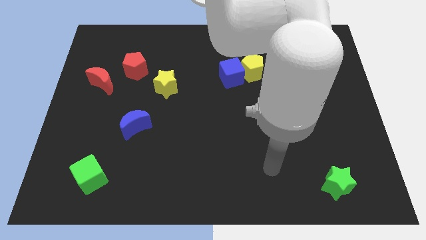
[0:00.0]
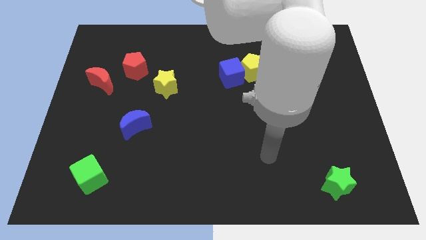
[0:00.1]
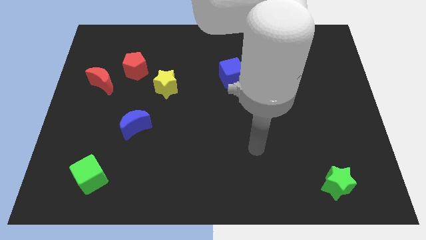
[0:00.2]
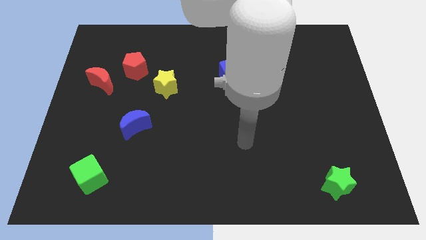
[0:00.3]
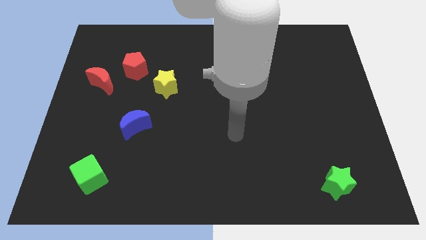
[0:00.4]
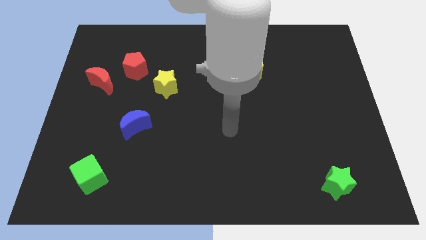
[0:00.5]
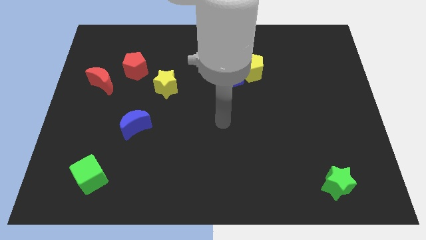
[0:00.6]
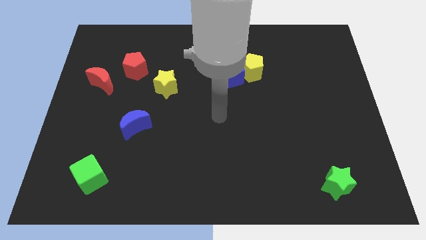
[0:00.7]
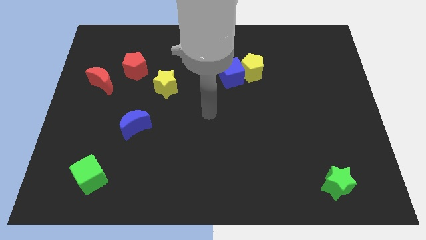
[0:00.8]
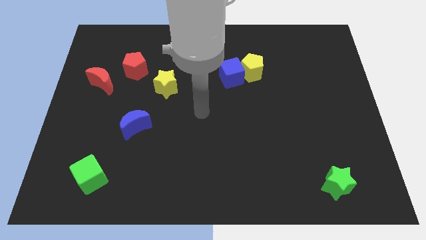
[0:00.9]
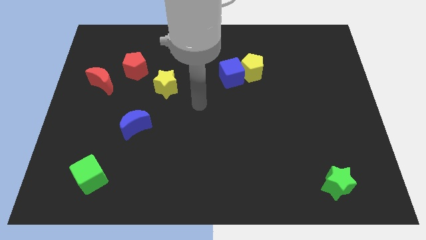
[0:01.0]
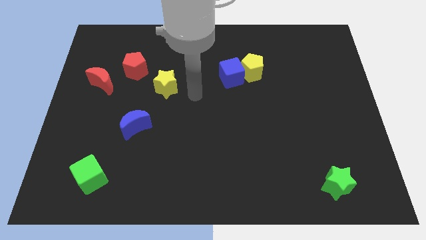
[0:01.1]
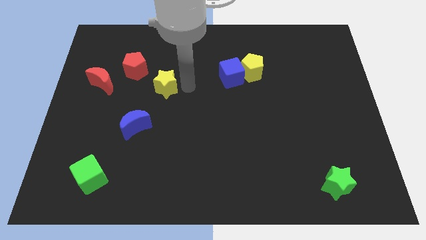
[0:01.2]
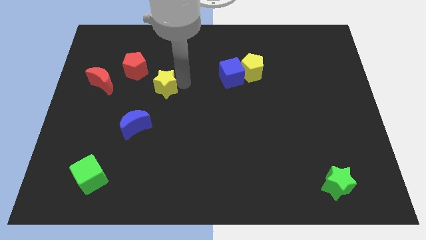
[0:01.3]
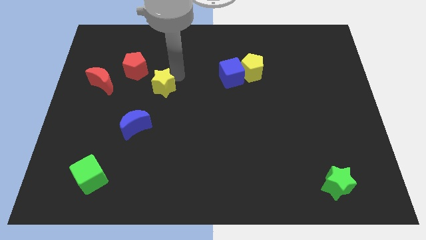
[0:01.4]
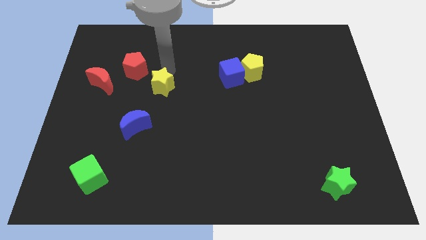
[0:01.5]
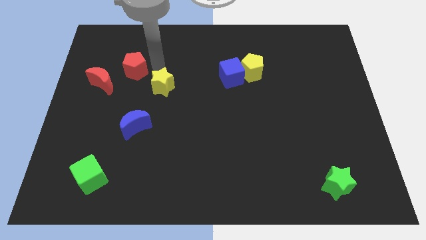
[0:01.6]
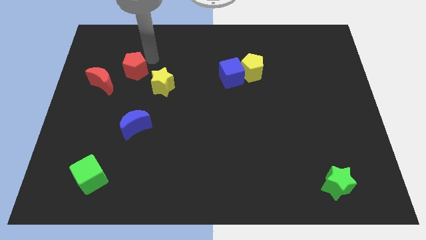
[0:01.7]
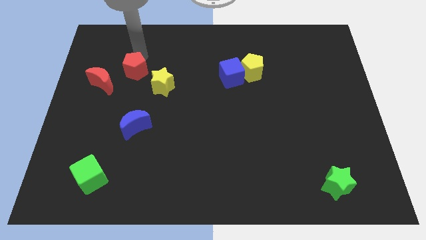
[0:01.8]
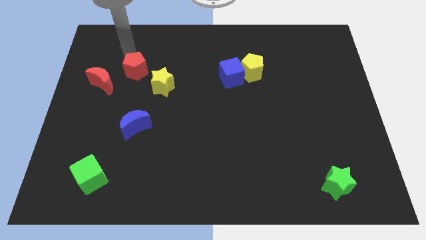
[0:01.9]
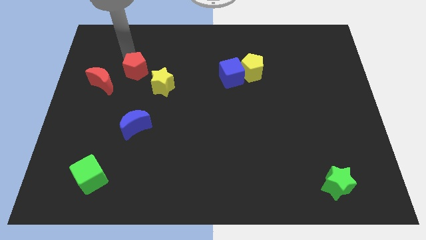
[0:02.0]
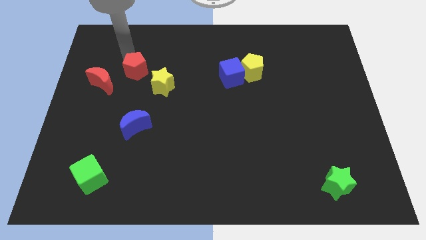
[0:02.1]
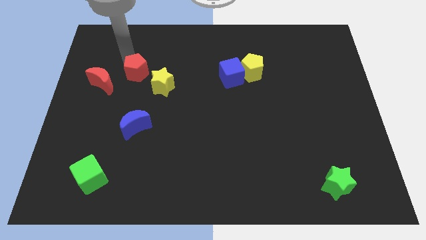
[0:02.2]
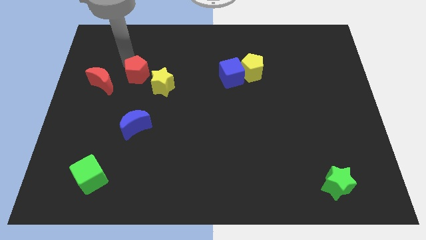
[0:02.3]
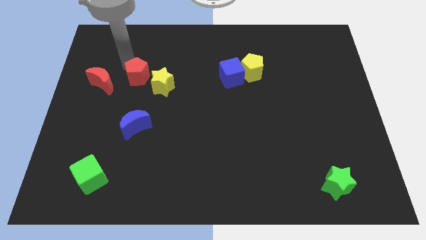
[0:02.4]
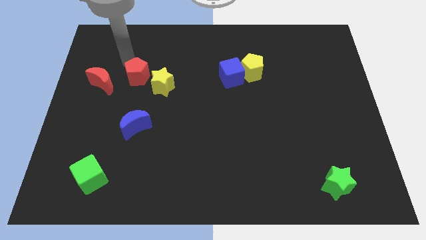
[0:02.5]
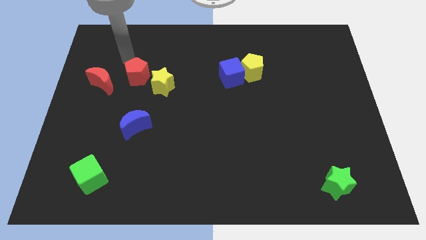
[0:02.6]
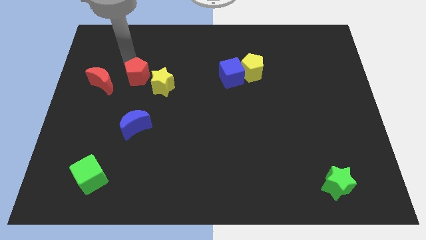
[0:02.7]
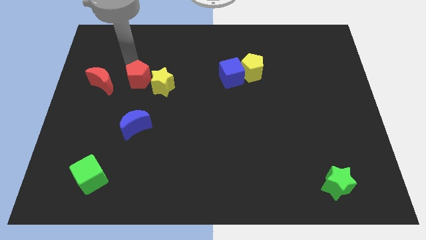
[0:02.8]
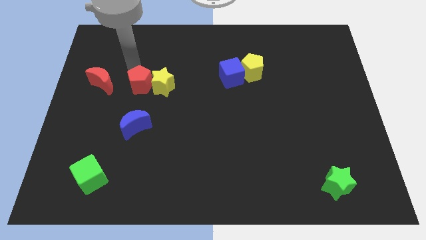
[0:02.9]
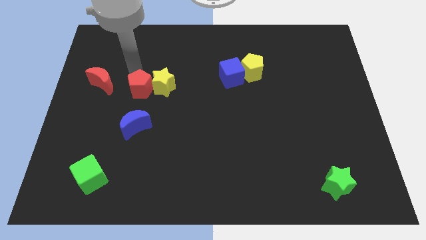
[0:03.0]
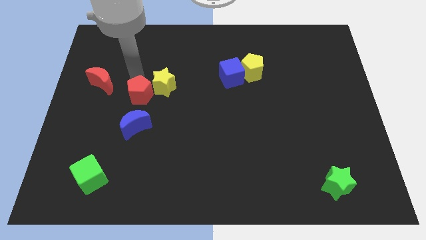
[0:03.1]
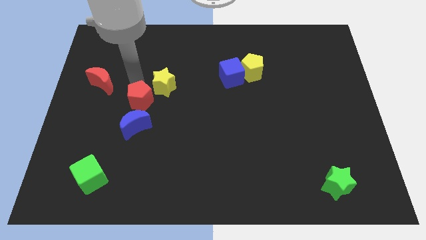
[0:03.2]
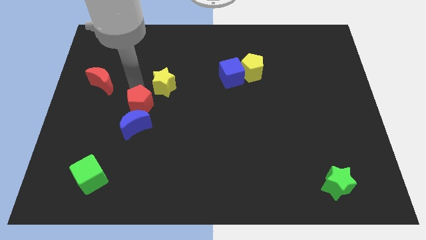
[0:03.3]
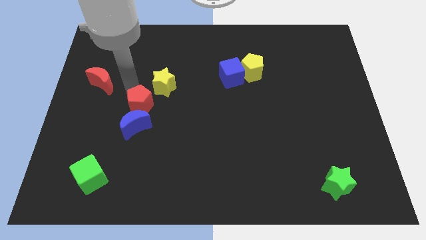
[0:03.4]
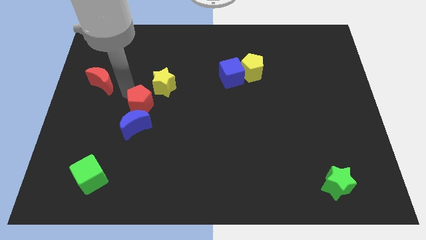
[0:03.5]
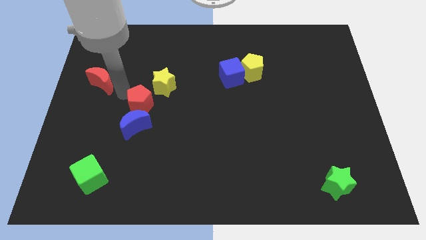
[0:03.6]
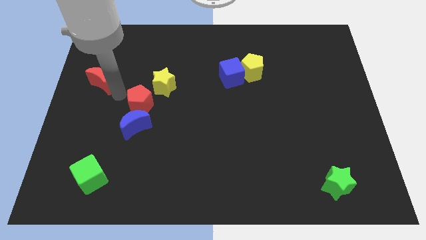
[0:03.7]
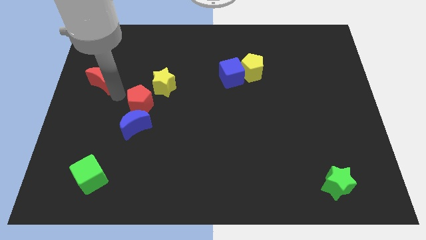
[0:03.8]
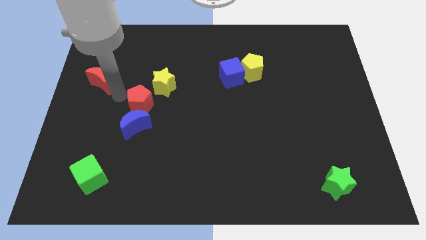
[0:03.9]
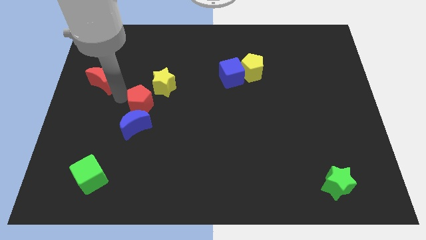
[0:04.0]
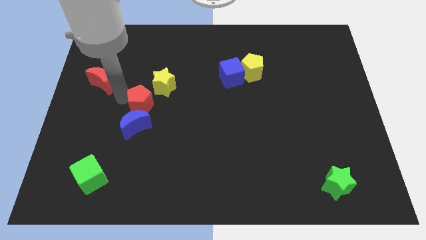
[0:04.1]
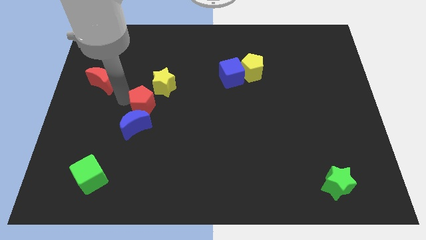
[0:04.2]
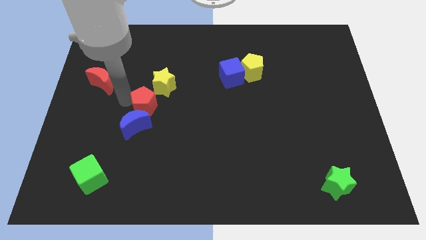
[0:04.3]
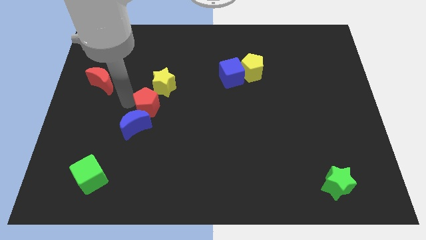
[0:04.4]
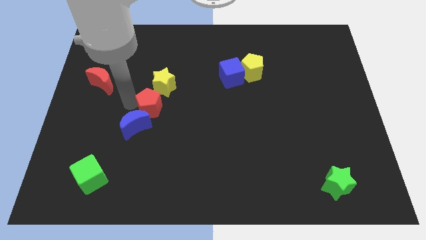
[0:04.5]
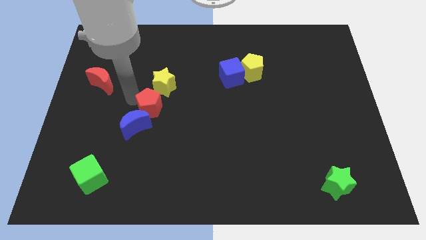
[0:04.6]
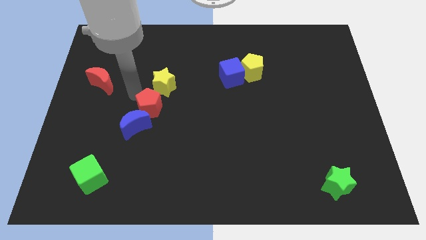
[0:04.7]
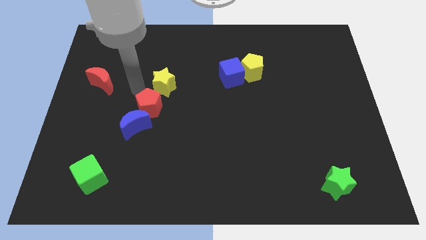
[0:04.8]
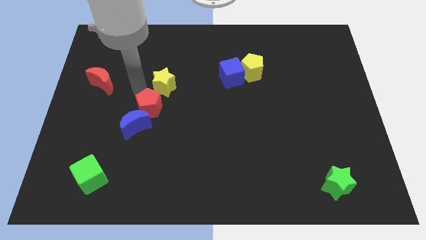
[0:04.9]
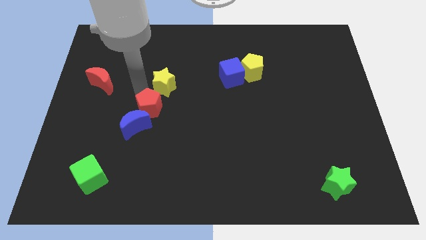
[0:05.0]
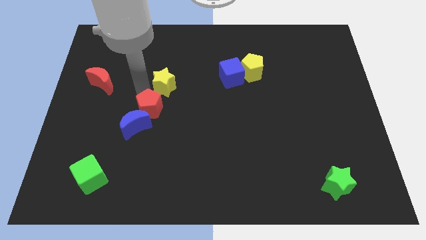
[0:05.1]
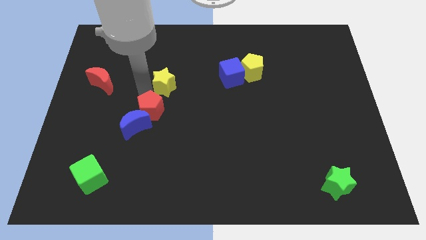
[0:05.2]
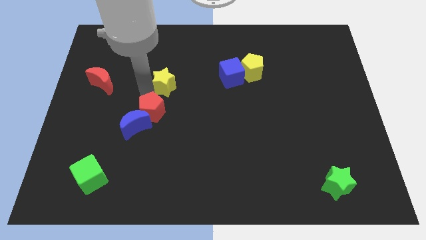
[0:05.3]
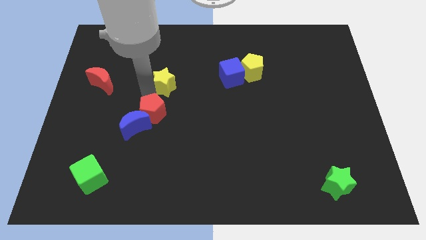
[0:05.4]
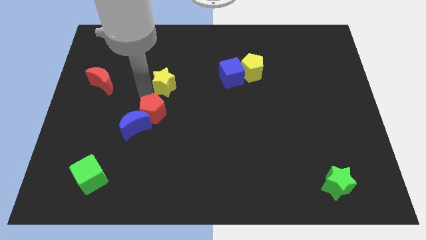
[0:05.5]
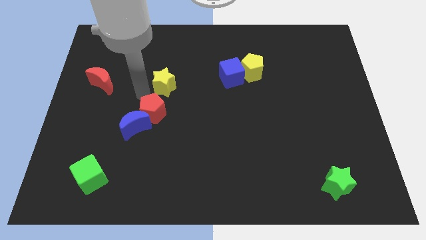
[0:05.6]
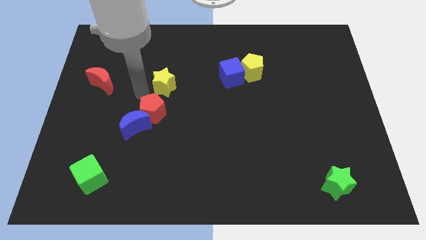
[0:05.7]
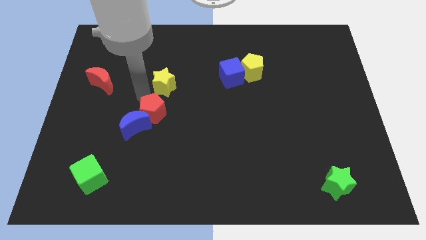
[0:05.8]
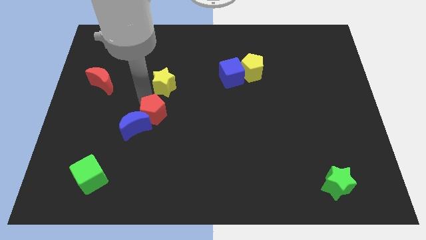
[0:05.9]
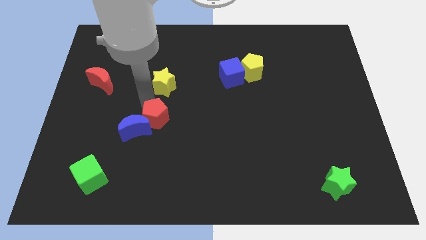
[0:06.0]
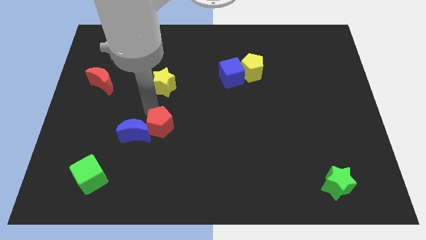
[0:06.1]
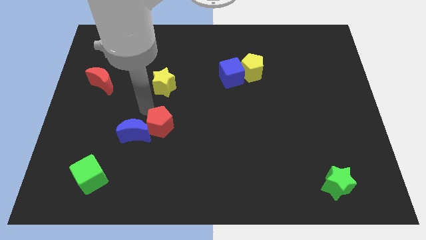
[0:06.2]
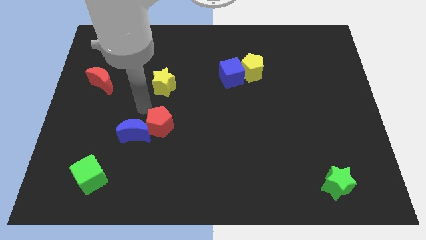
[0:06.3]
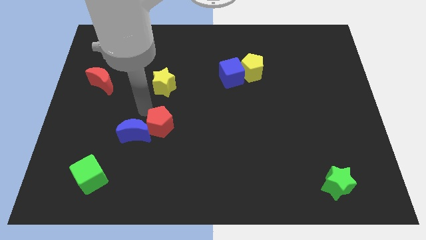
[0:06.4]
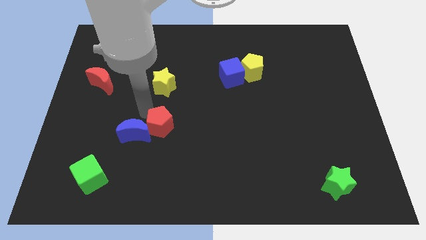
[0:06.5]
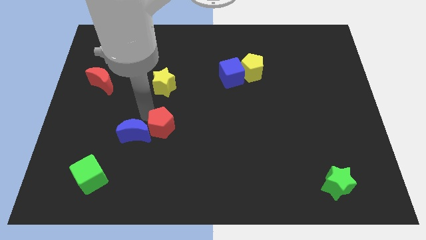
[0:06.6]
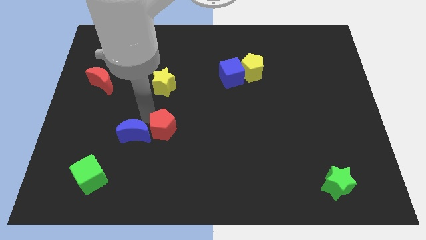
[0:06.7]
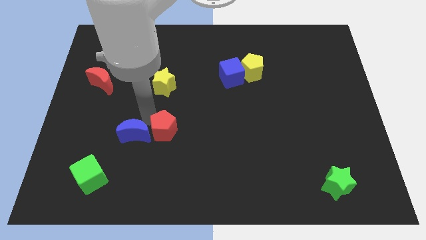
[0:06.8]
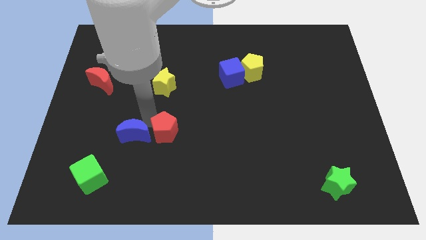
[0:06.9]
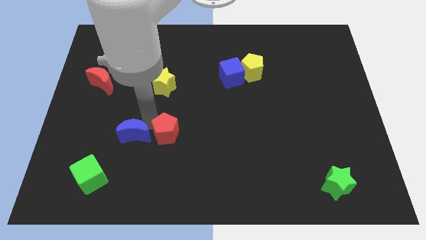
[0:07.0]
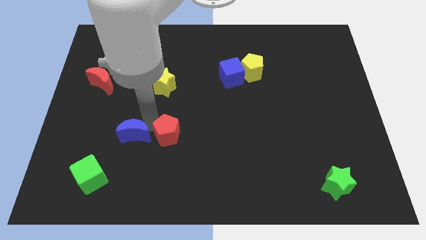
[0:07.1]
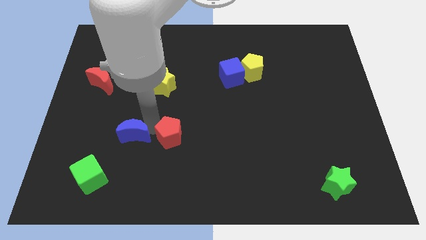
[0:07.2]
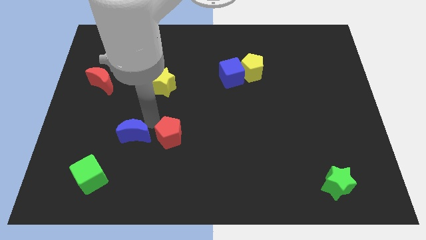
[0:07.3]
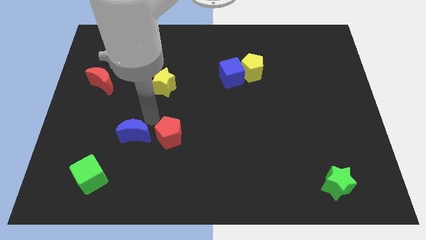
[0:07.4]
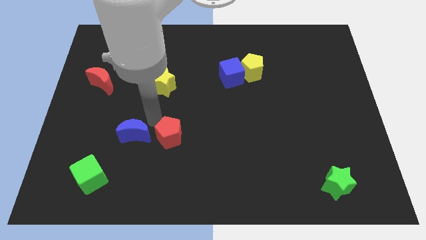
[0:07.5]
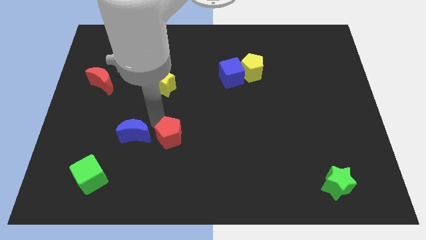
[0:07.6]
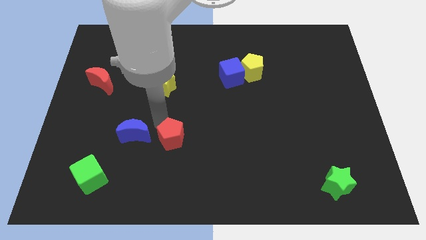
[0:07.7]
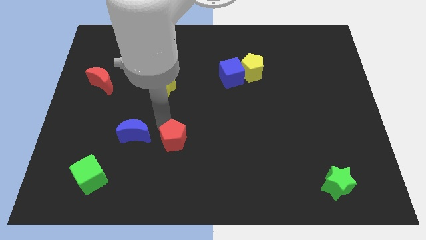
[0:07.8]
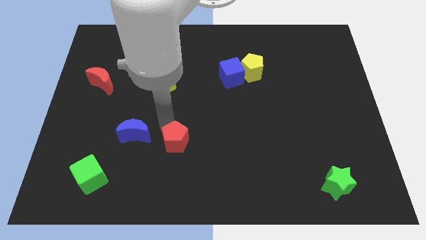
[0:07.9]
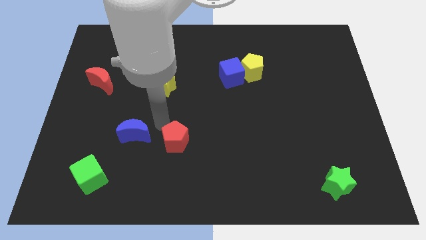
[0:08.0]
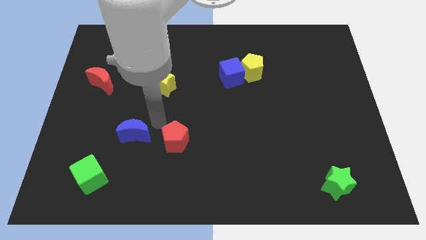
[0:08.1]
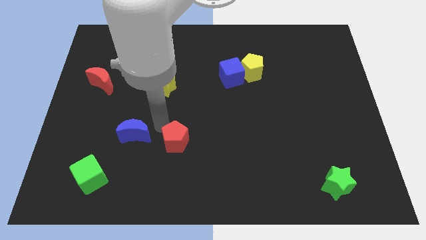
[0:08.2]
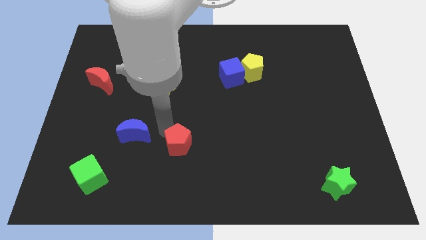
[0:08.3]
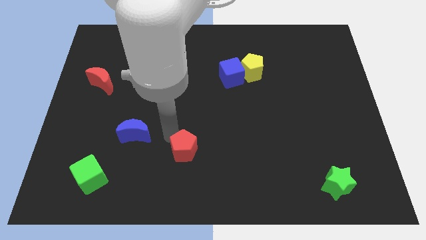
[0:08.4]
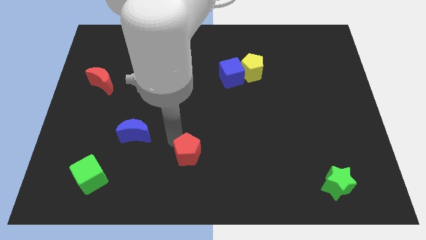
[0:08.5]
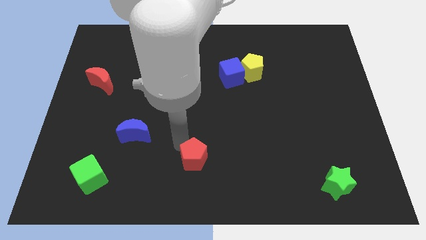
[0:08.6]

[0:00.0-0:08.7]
slide the red pentagon to the bottom side
